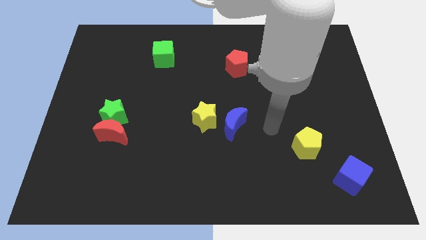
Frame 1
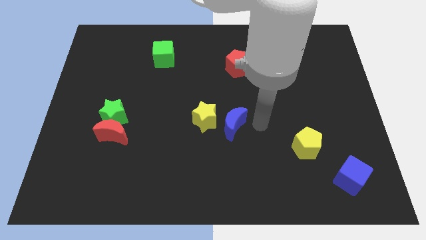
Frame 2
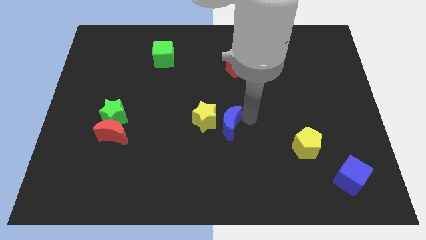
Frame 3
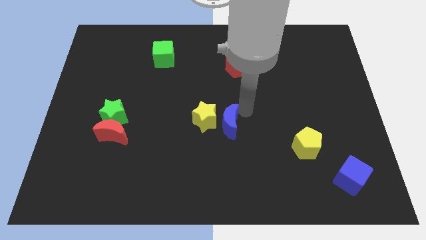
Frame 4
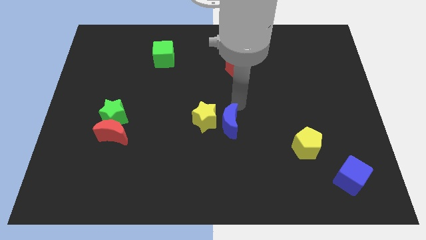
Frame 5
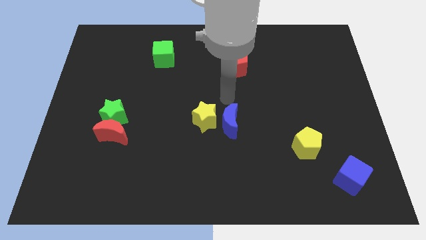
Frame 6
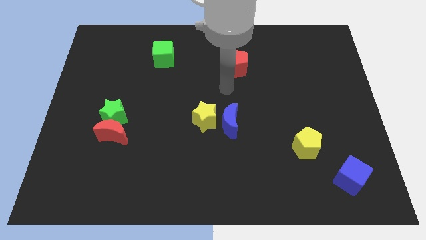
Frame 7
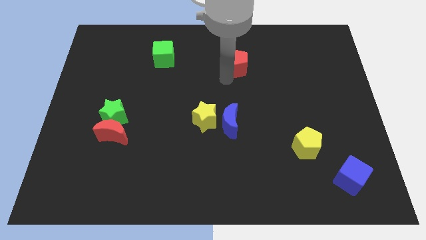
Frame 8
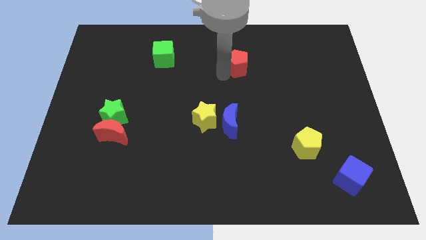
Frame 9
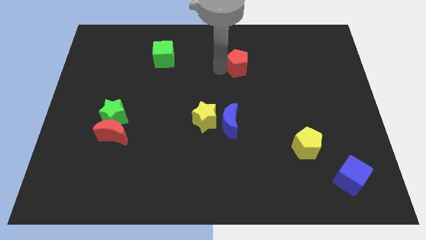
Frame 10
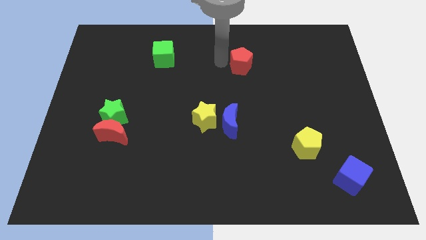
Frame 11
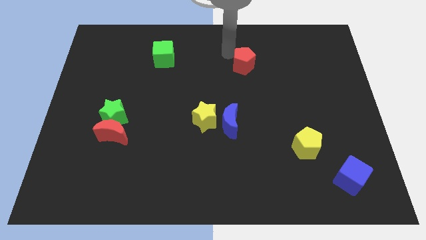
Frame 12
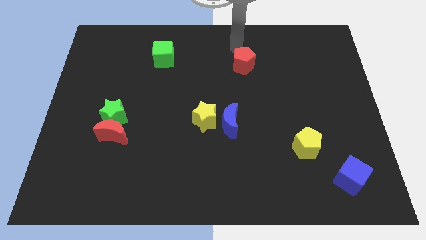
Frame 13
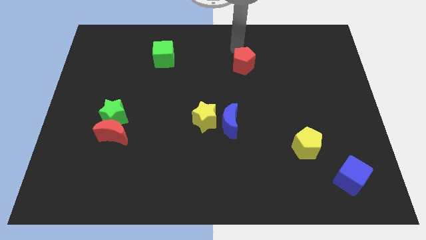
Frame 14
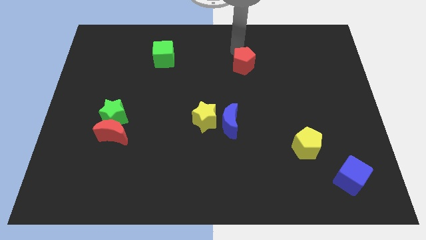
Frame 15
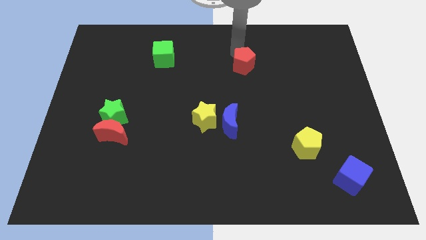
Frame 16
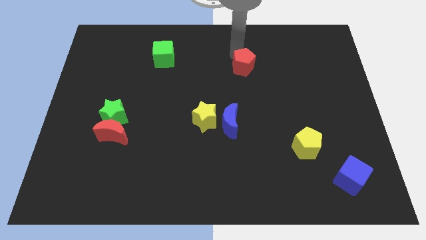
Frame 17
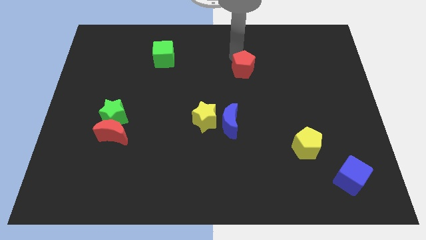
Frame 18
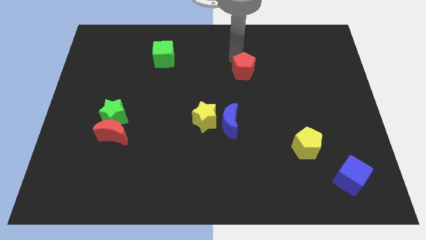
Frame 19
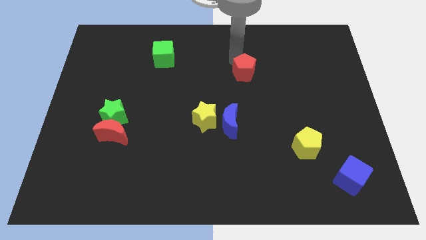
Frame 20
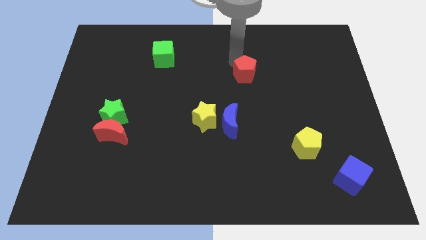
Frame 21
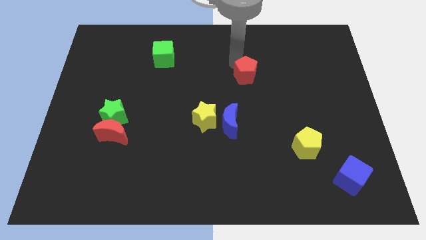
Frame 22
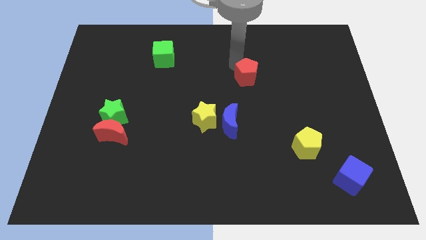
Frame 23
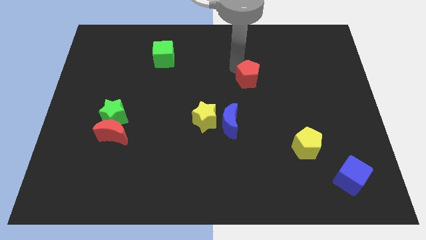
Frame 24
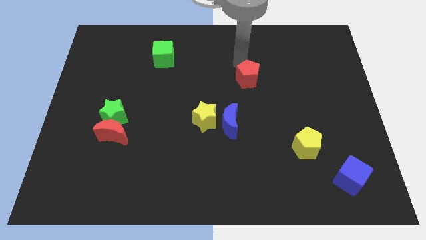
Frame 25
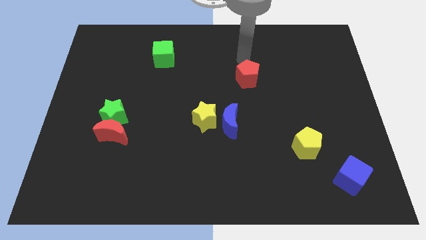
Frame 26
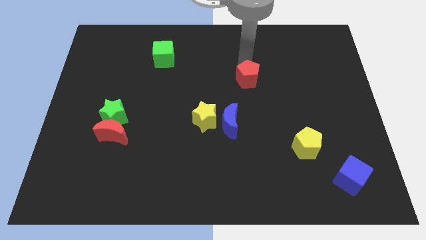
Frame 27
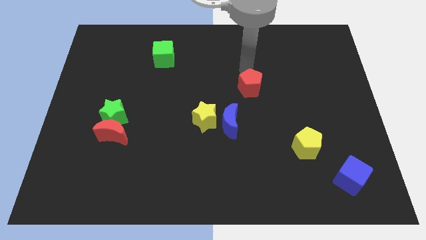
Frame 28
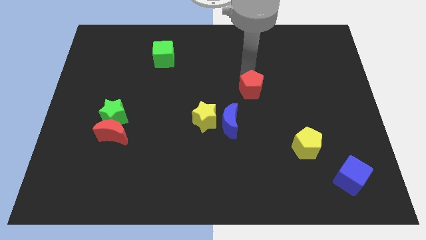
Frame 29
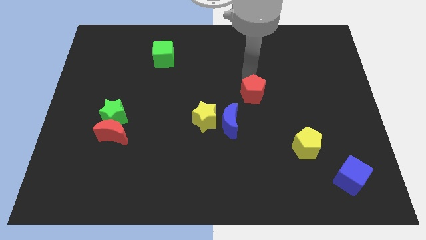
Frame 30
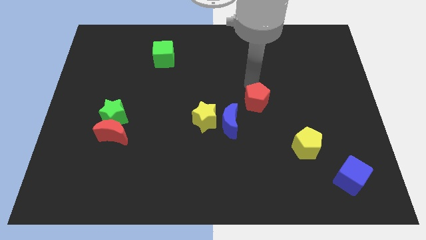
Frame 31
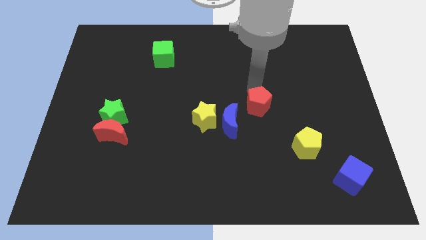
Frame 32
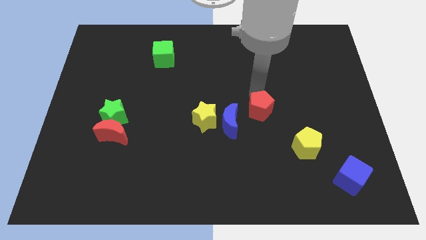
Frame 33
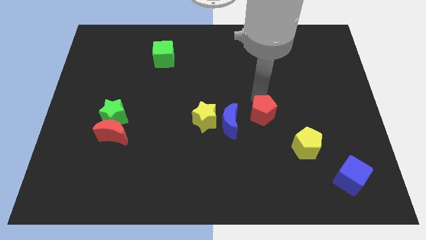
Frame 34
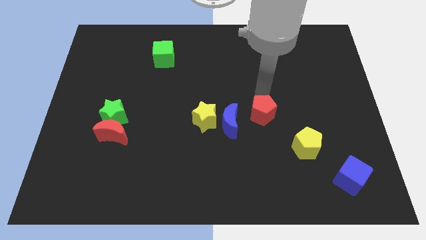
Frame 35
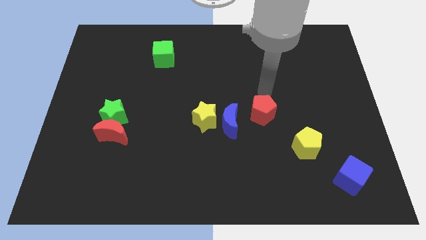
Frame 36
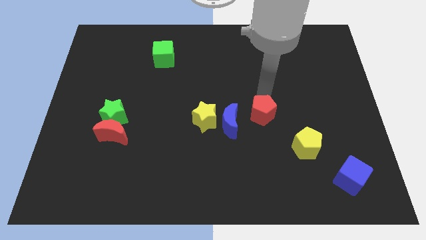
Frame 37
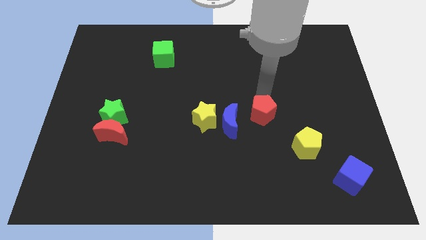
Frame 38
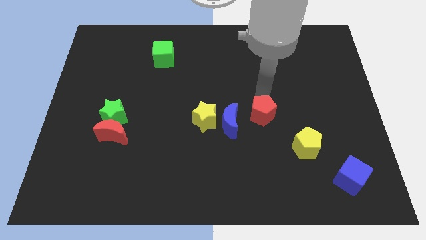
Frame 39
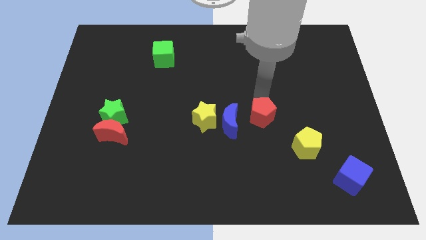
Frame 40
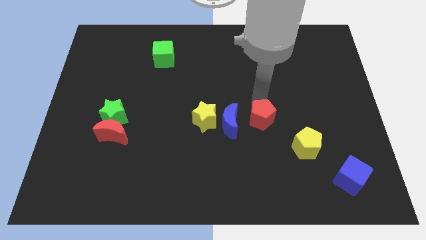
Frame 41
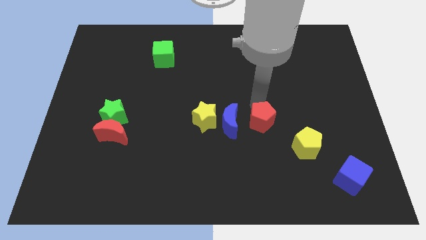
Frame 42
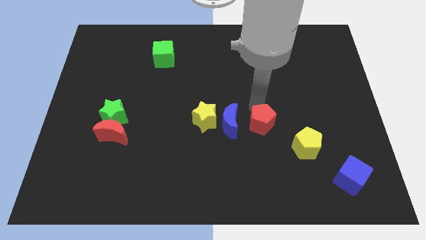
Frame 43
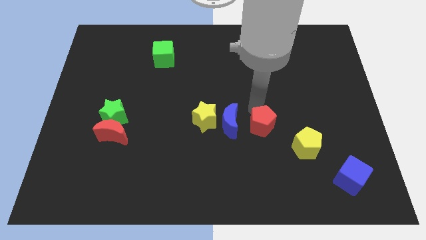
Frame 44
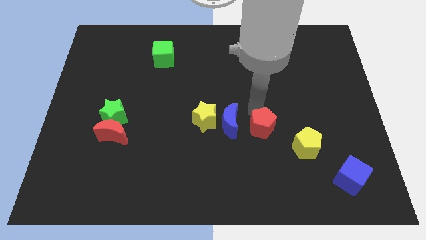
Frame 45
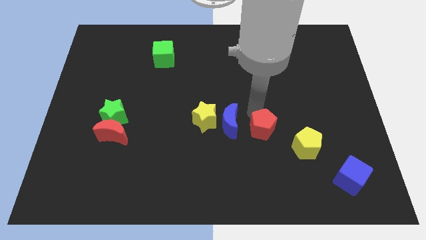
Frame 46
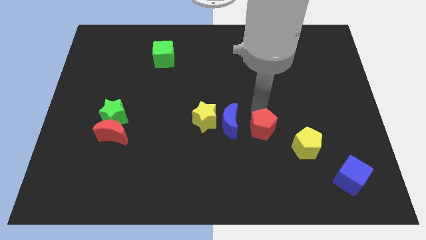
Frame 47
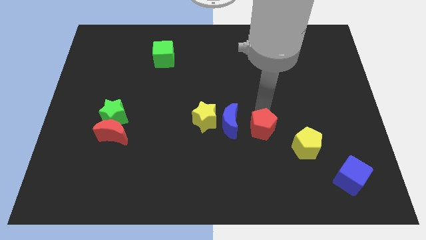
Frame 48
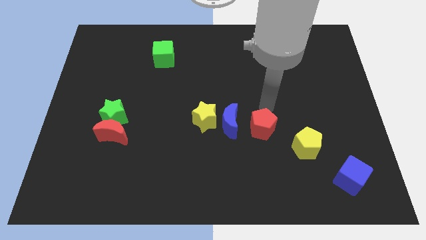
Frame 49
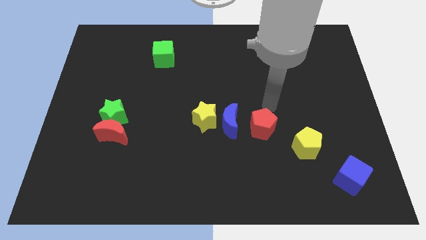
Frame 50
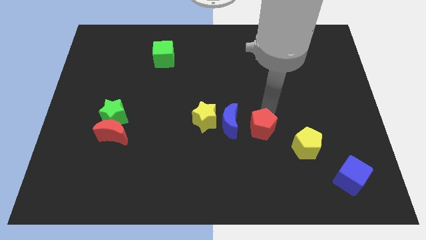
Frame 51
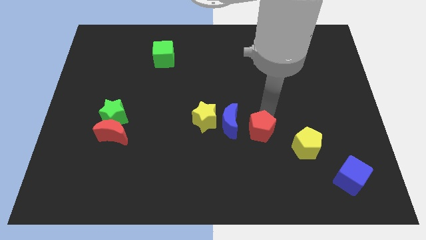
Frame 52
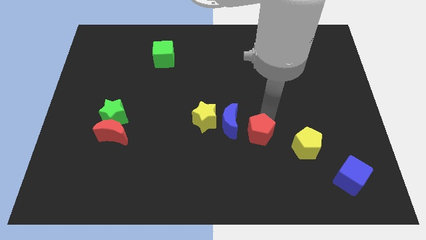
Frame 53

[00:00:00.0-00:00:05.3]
slide the red pentagon downwards

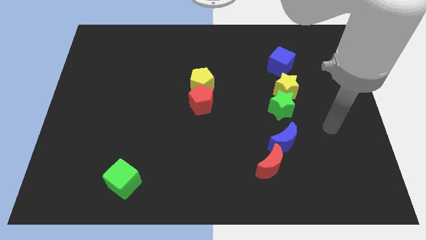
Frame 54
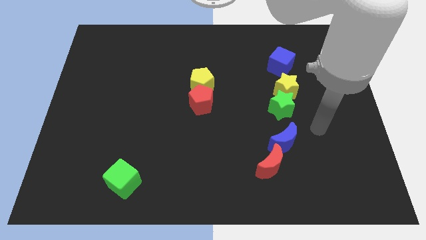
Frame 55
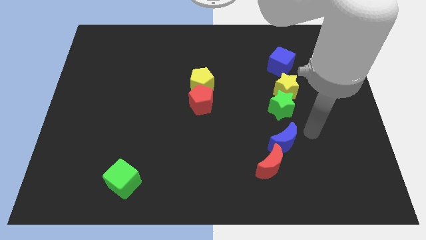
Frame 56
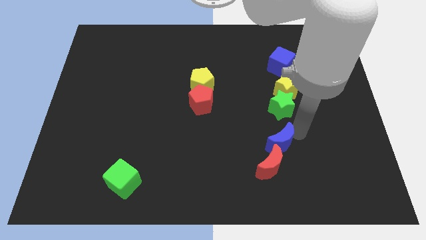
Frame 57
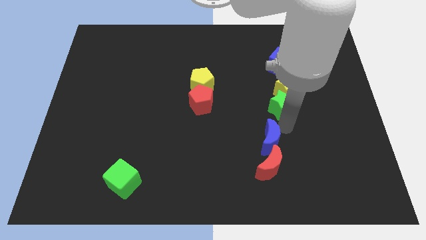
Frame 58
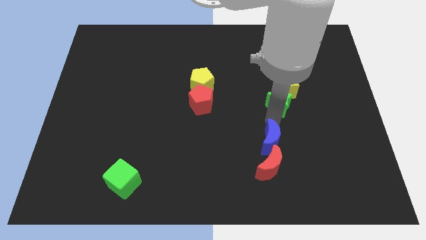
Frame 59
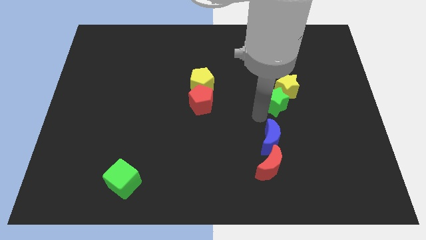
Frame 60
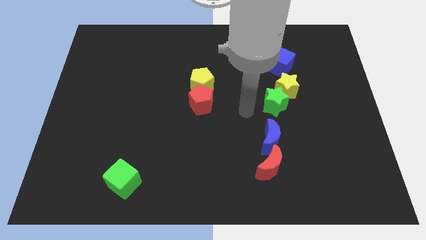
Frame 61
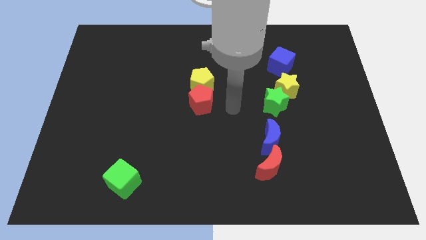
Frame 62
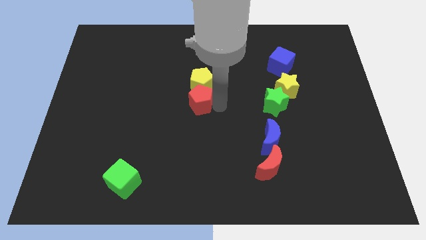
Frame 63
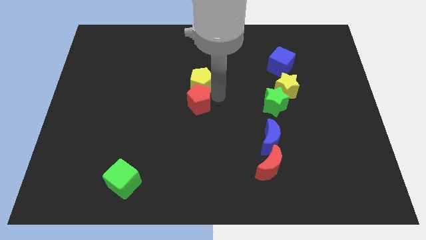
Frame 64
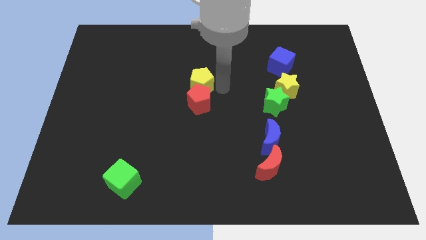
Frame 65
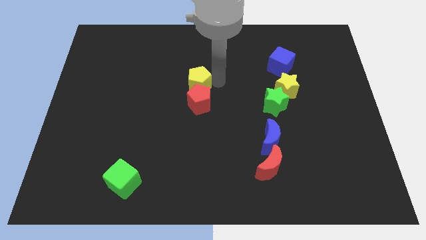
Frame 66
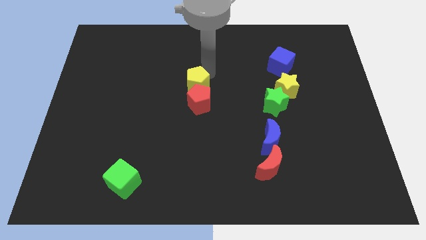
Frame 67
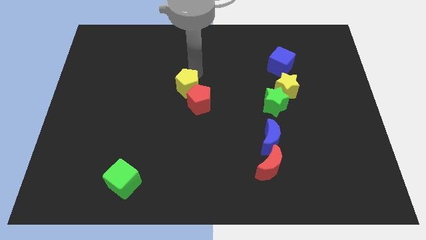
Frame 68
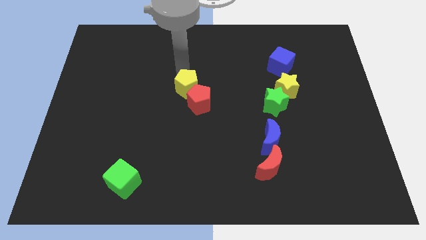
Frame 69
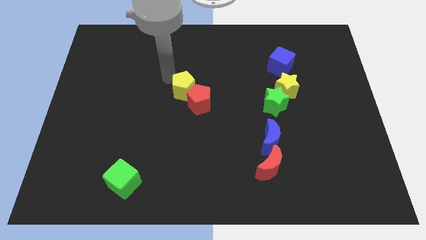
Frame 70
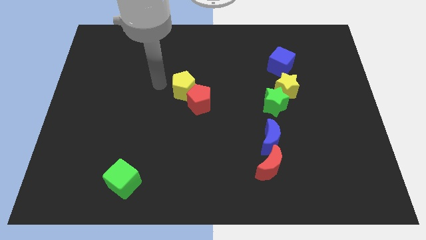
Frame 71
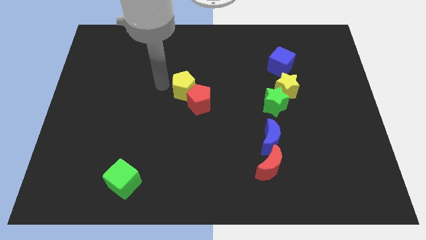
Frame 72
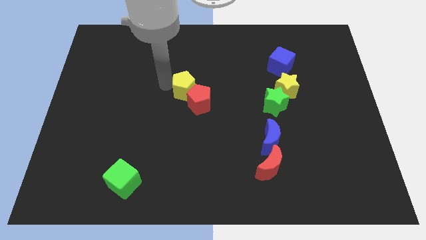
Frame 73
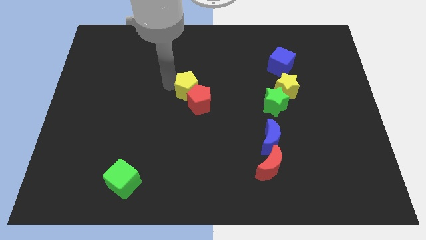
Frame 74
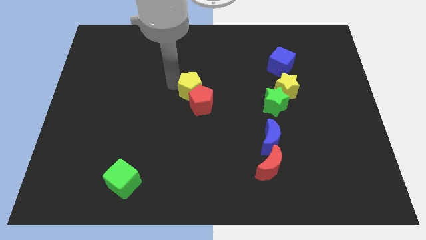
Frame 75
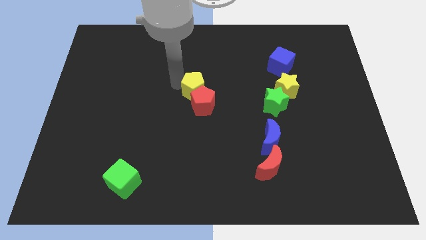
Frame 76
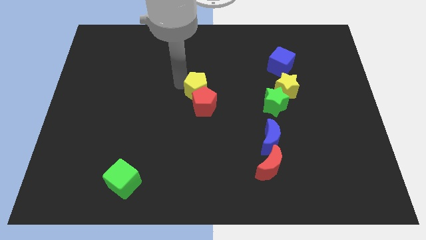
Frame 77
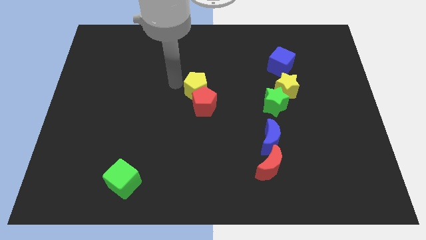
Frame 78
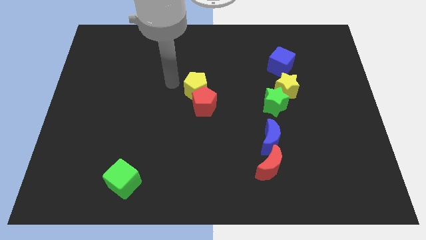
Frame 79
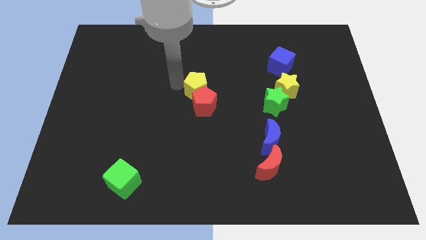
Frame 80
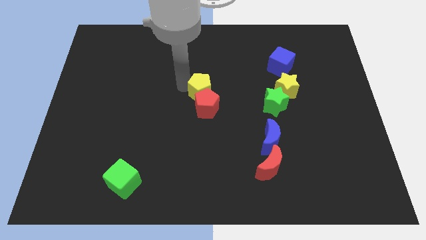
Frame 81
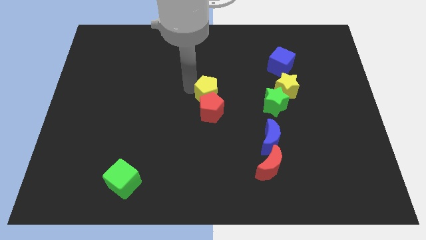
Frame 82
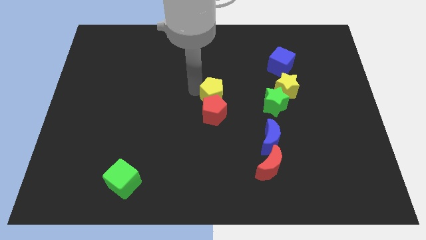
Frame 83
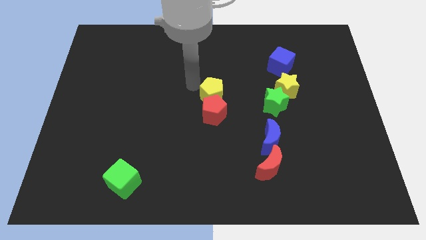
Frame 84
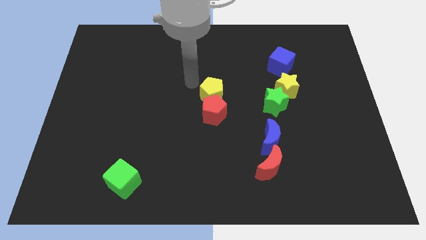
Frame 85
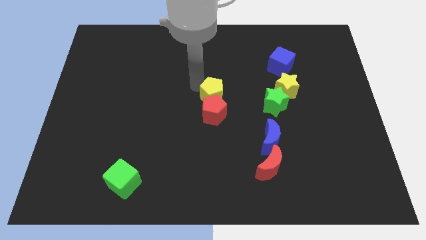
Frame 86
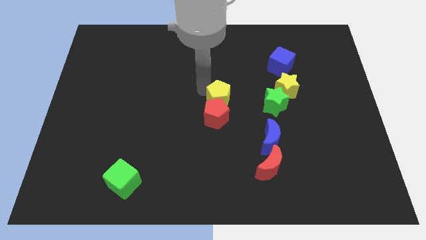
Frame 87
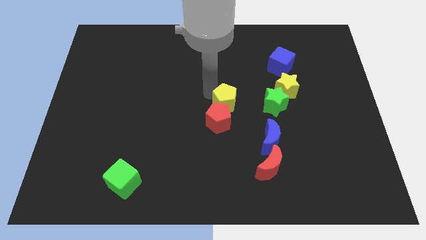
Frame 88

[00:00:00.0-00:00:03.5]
push the yellow pentagon diagonally down and to the right a bit
